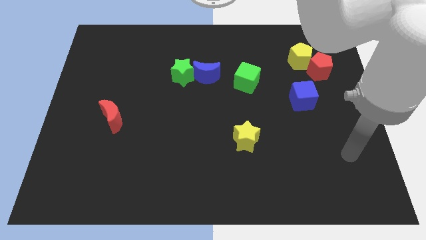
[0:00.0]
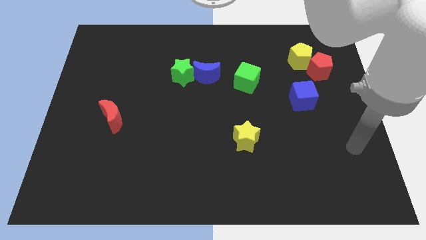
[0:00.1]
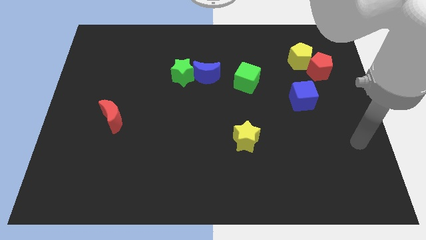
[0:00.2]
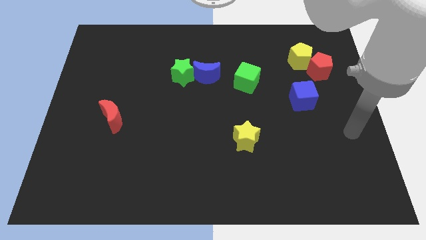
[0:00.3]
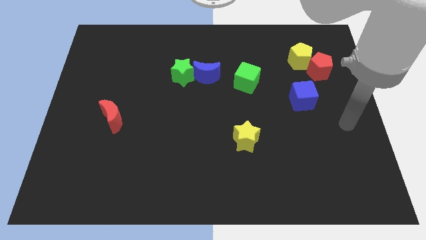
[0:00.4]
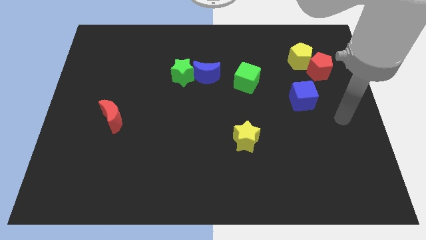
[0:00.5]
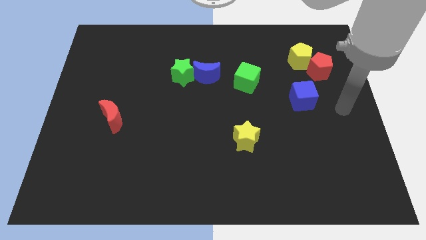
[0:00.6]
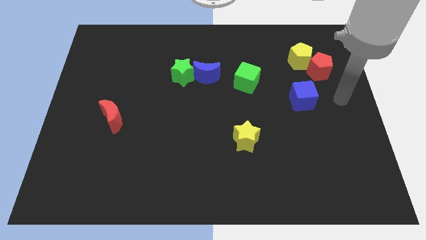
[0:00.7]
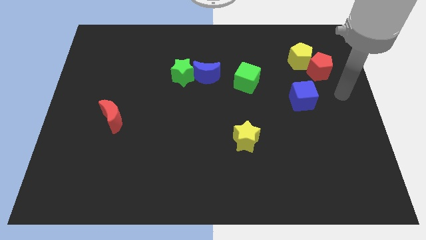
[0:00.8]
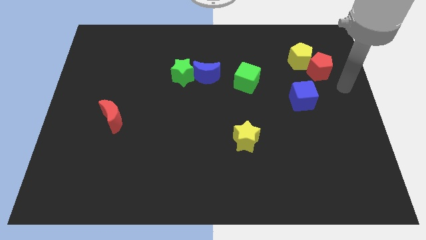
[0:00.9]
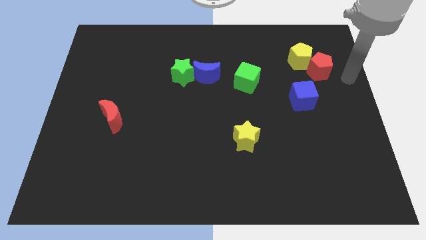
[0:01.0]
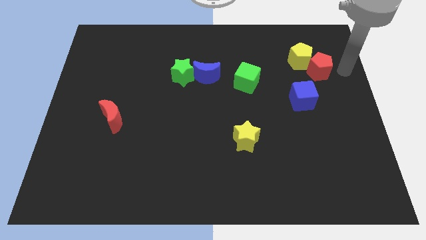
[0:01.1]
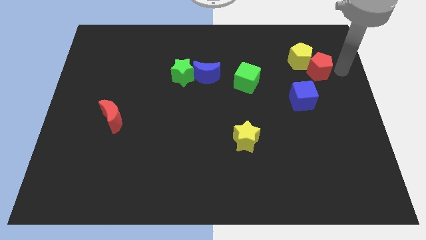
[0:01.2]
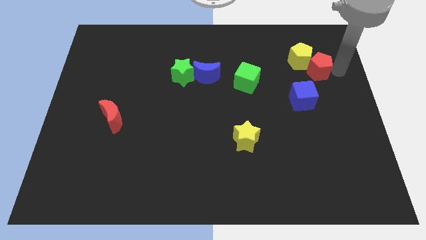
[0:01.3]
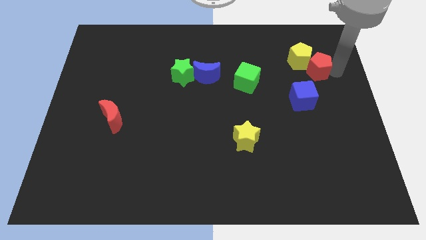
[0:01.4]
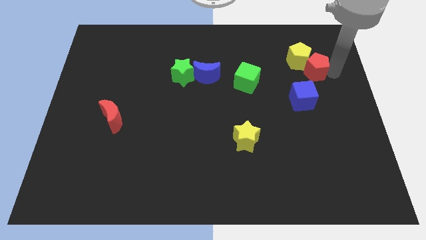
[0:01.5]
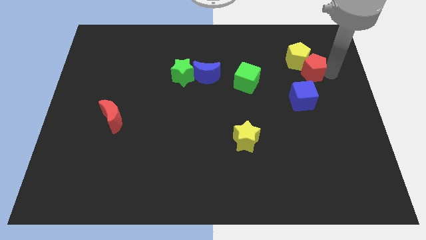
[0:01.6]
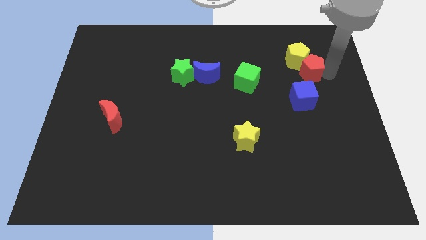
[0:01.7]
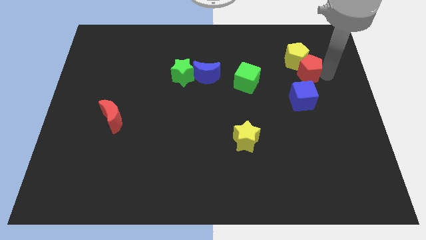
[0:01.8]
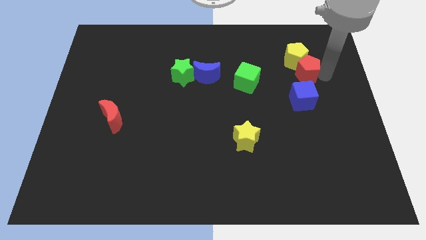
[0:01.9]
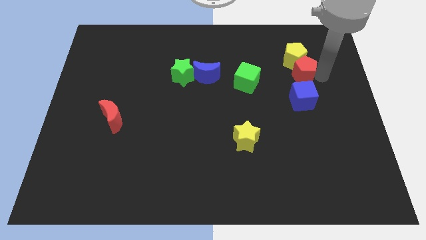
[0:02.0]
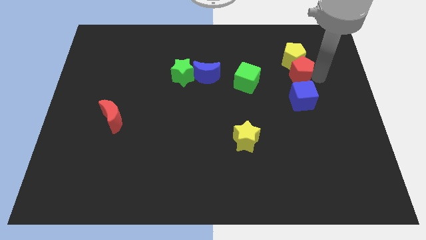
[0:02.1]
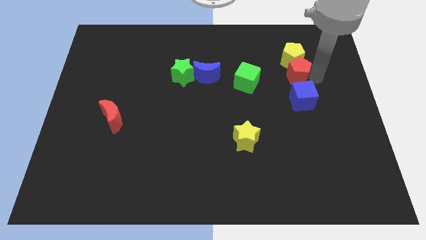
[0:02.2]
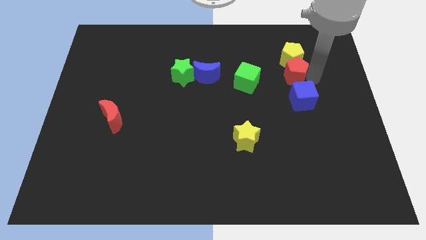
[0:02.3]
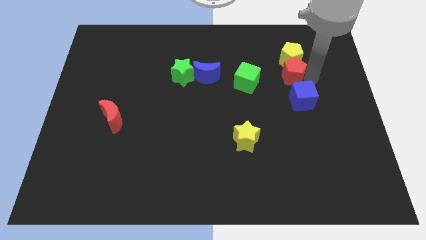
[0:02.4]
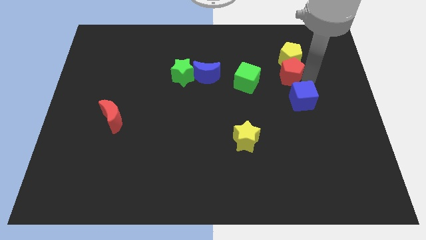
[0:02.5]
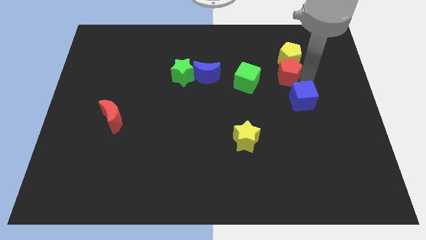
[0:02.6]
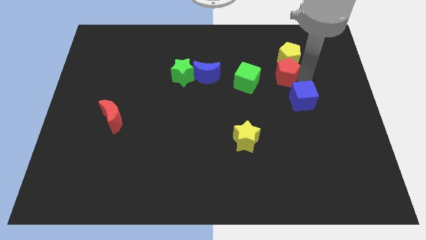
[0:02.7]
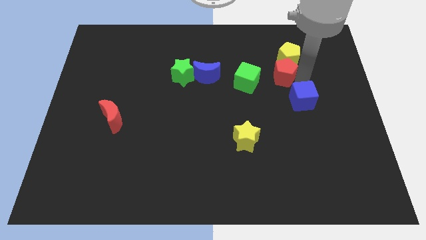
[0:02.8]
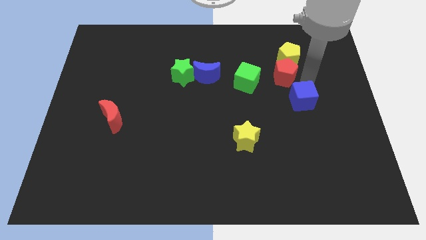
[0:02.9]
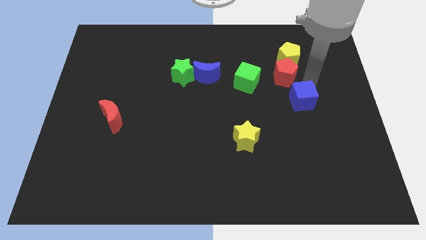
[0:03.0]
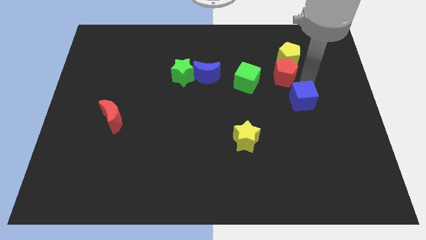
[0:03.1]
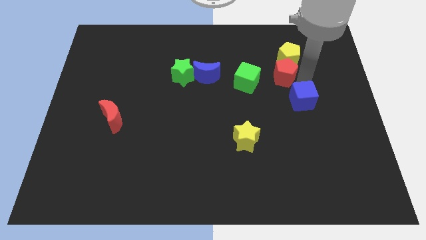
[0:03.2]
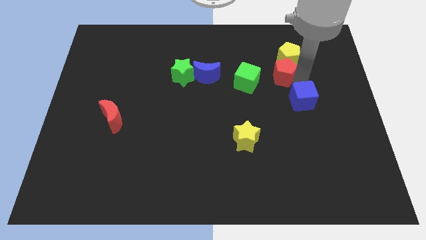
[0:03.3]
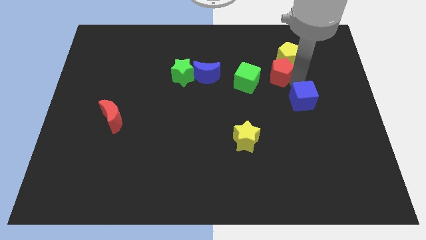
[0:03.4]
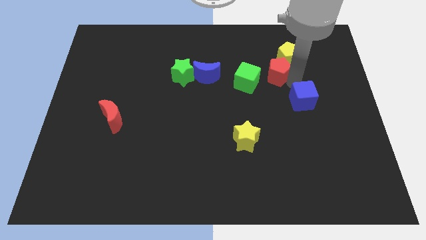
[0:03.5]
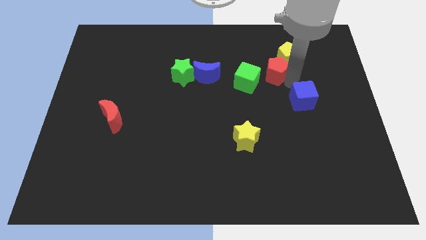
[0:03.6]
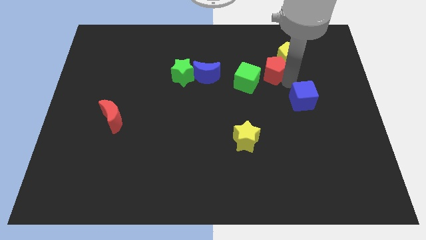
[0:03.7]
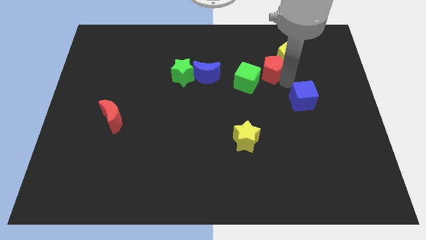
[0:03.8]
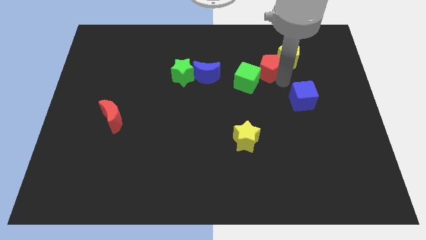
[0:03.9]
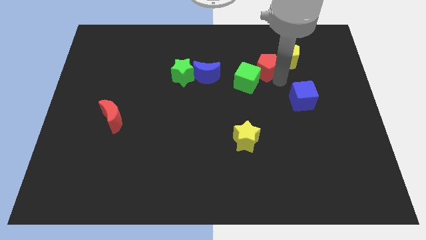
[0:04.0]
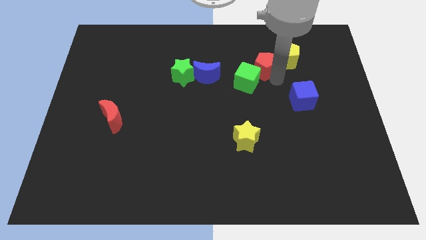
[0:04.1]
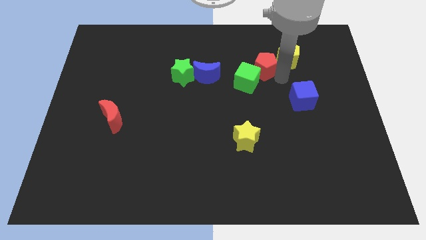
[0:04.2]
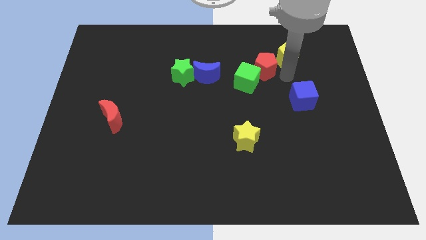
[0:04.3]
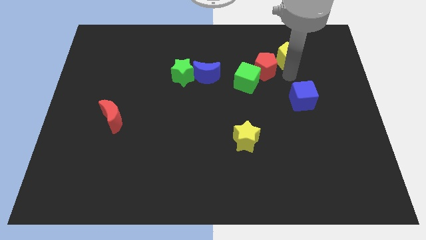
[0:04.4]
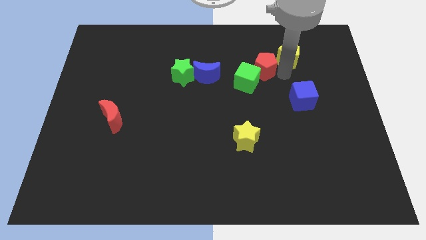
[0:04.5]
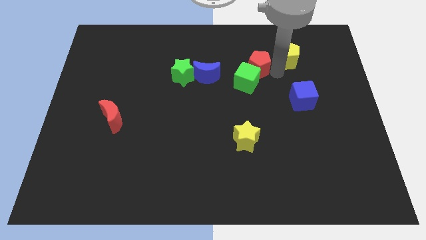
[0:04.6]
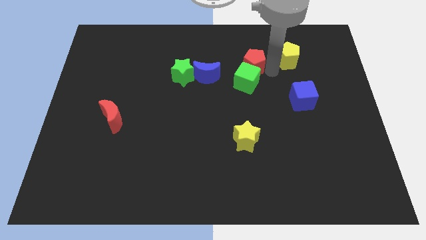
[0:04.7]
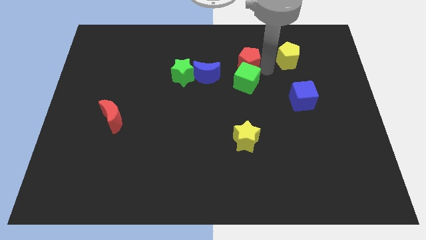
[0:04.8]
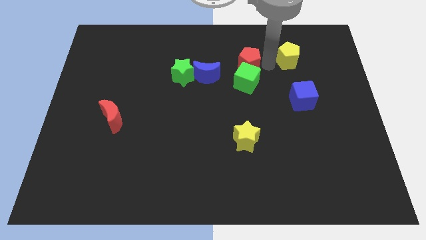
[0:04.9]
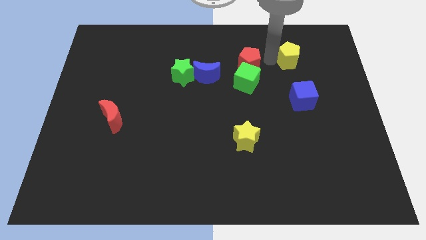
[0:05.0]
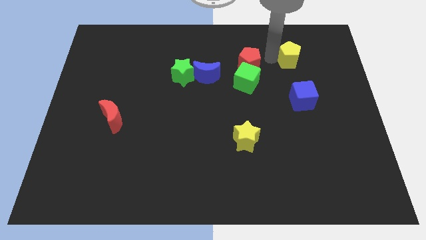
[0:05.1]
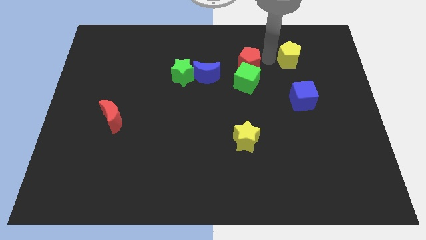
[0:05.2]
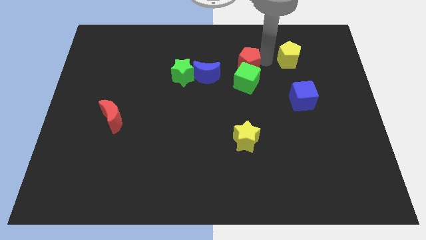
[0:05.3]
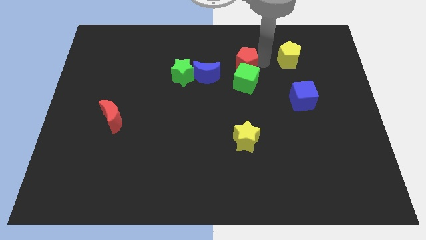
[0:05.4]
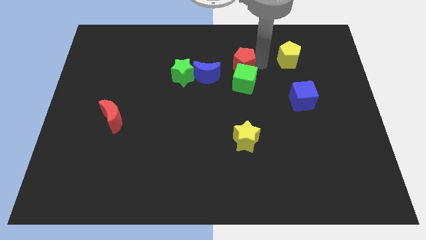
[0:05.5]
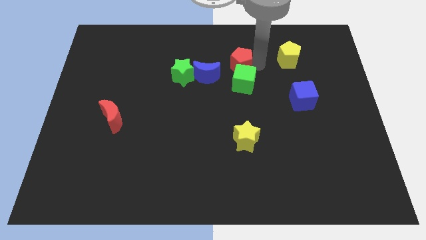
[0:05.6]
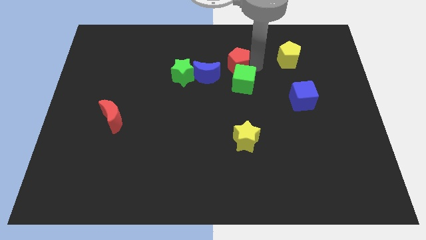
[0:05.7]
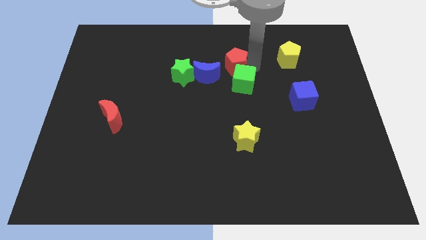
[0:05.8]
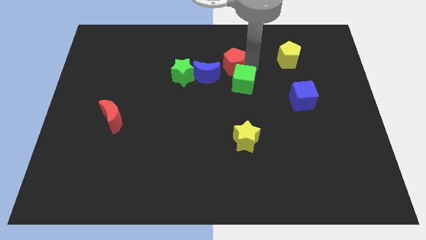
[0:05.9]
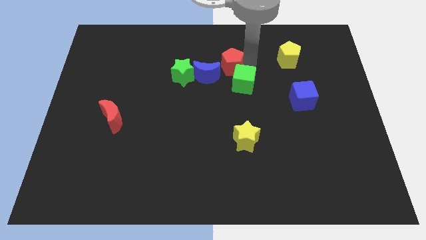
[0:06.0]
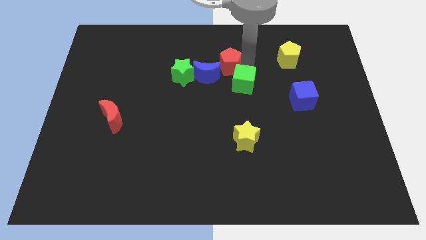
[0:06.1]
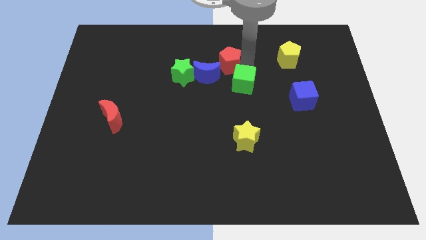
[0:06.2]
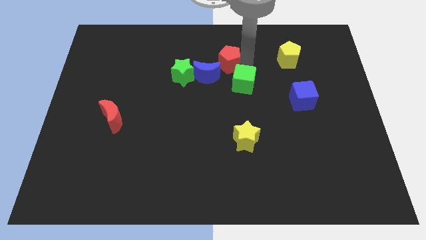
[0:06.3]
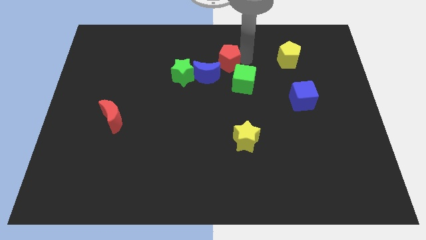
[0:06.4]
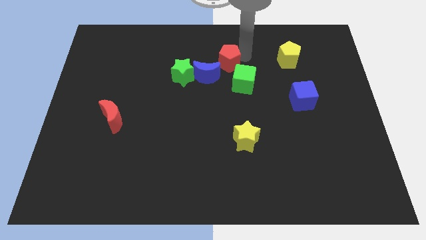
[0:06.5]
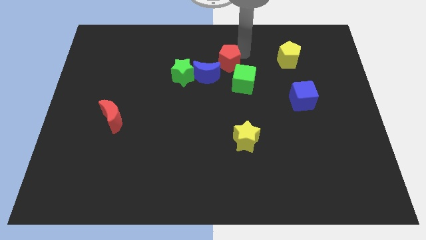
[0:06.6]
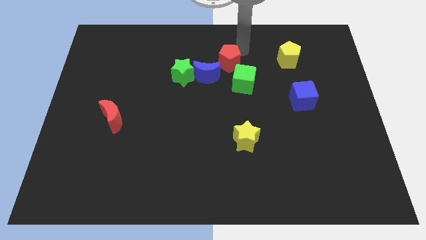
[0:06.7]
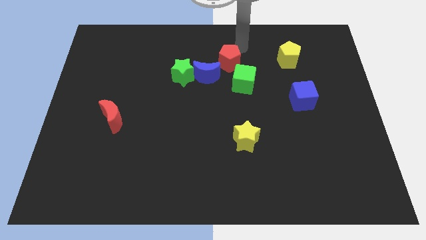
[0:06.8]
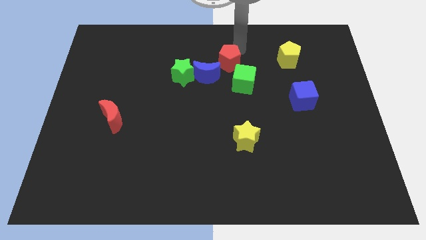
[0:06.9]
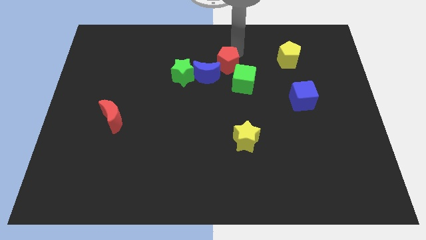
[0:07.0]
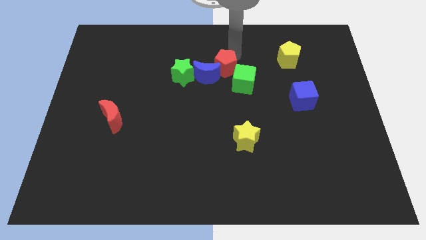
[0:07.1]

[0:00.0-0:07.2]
put the red pentagon to the blue moon

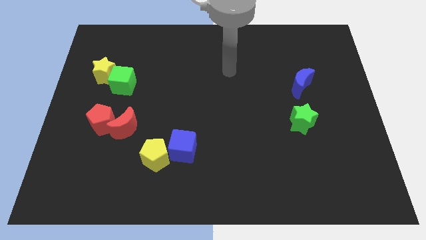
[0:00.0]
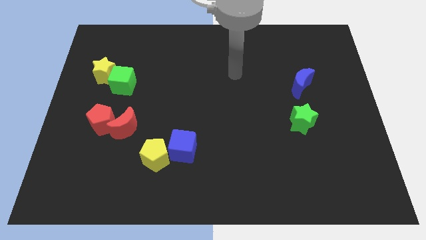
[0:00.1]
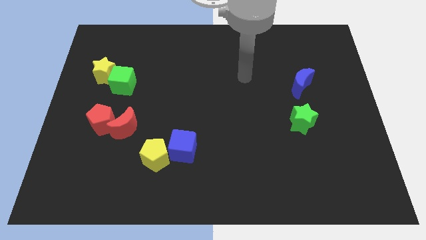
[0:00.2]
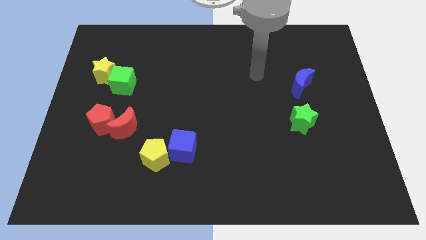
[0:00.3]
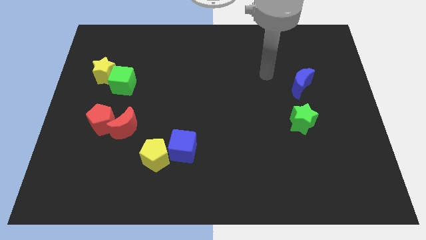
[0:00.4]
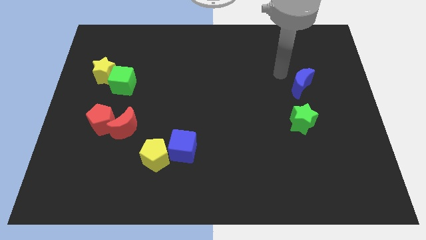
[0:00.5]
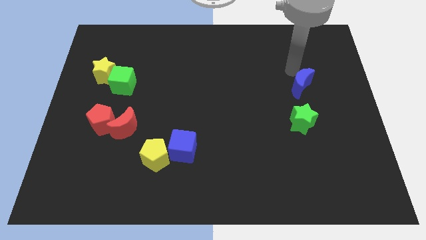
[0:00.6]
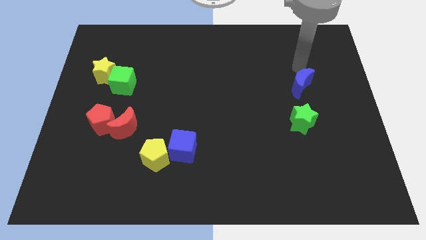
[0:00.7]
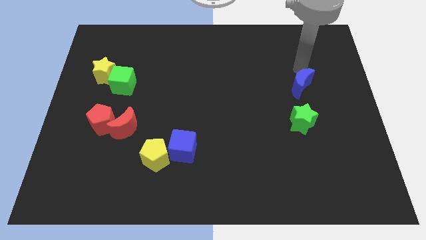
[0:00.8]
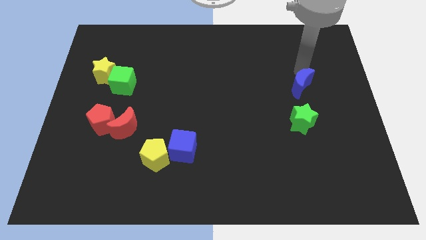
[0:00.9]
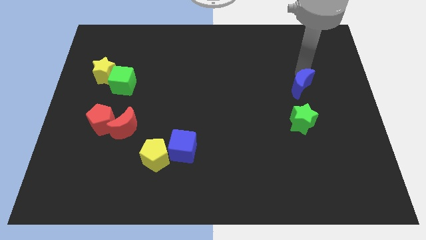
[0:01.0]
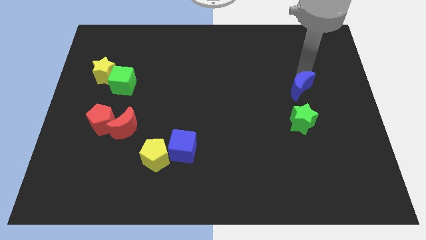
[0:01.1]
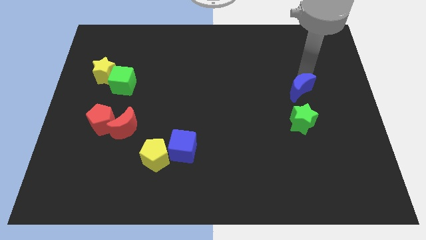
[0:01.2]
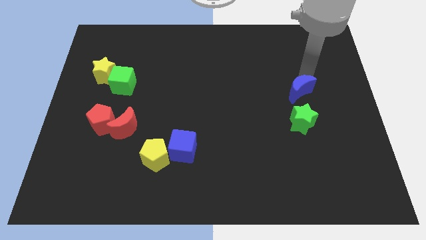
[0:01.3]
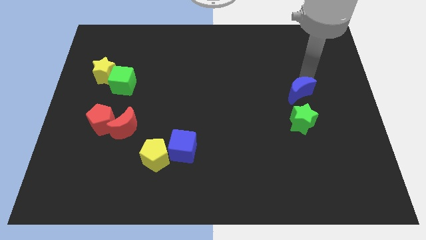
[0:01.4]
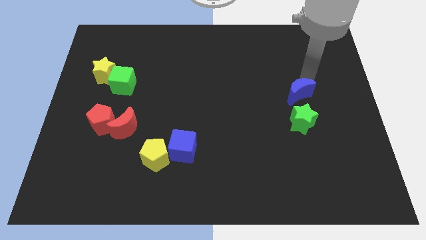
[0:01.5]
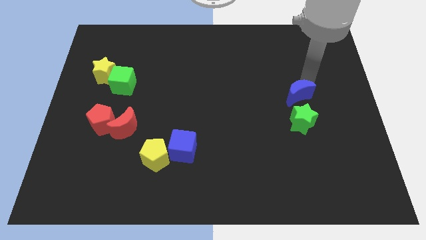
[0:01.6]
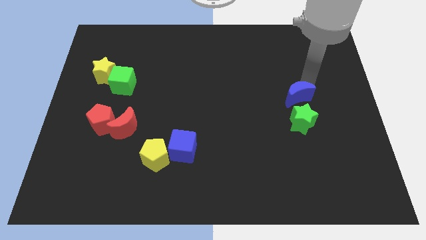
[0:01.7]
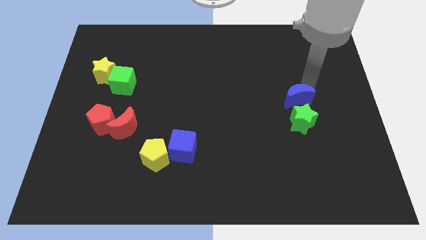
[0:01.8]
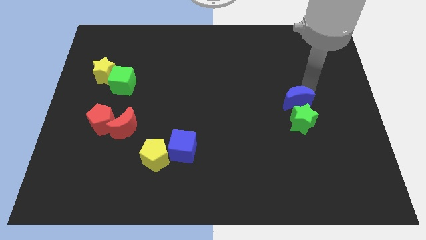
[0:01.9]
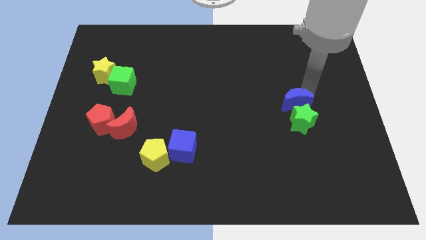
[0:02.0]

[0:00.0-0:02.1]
slide the blue moon next to the green star
